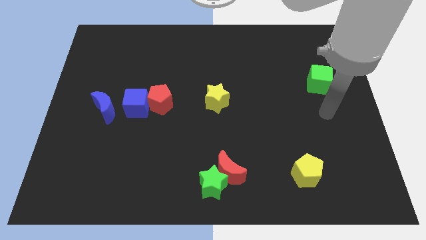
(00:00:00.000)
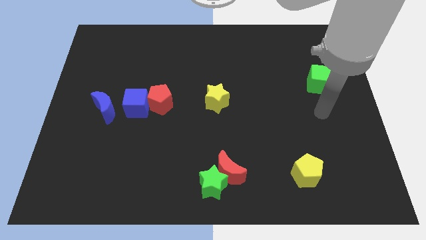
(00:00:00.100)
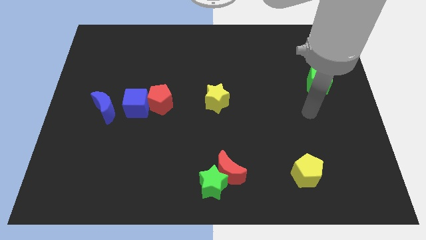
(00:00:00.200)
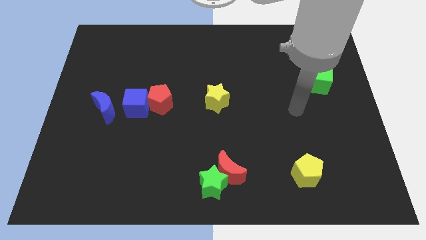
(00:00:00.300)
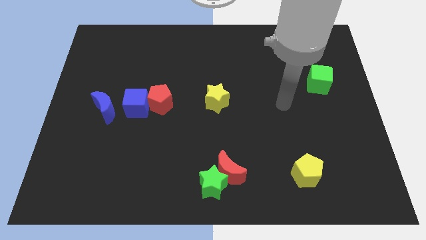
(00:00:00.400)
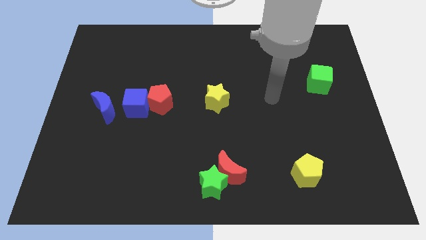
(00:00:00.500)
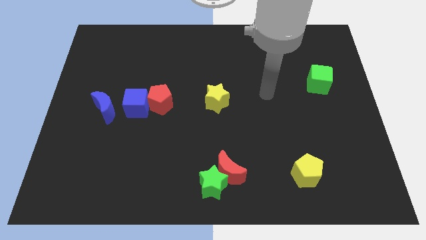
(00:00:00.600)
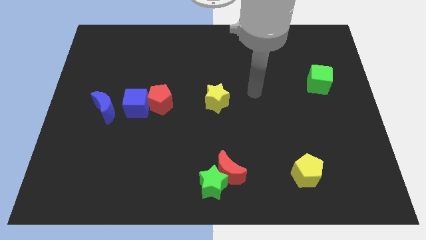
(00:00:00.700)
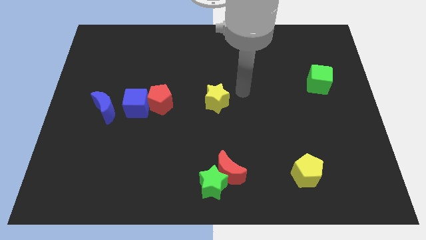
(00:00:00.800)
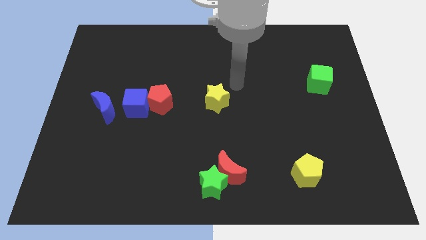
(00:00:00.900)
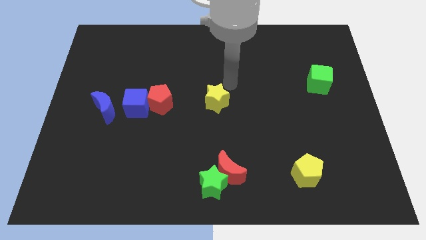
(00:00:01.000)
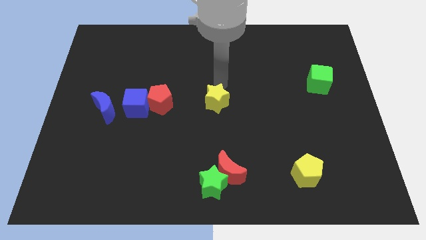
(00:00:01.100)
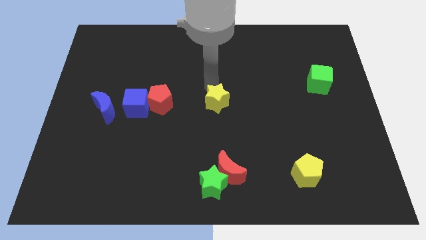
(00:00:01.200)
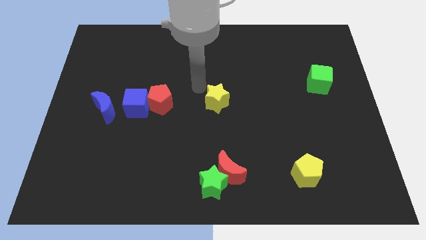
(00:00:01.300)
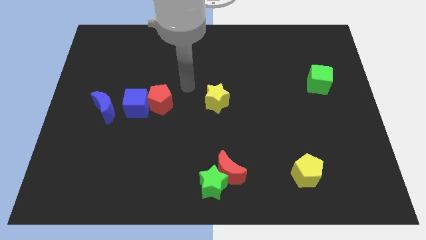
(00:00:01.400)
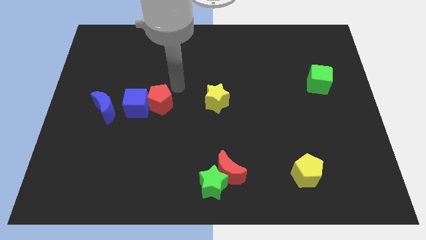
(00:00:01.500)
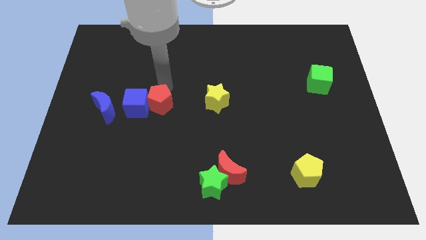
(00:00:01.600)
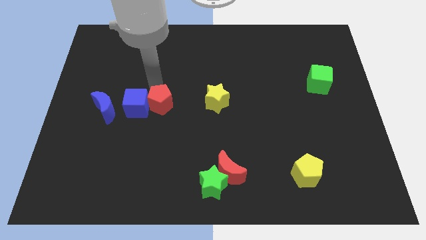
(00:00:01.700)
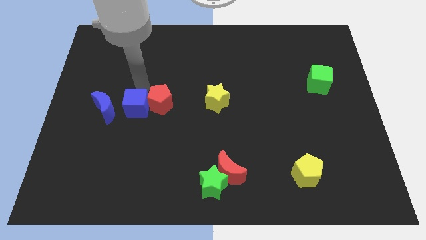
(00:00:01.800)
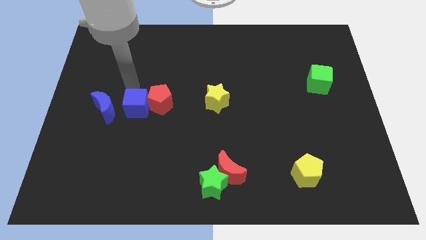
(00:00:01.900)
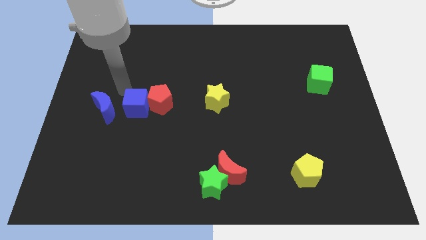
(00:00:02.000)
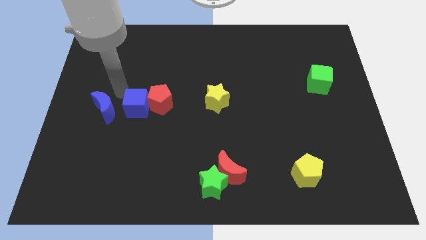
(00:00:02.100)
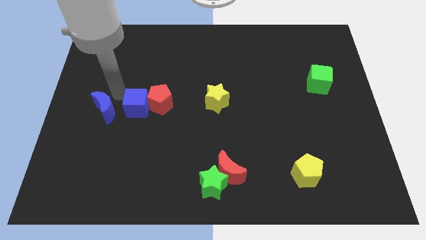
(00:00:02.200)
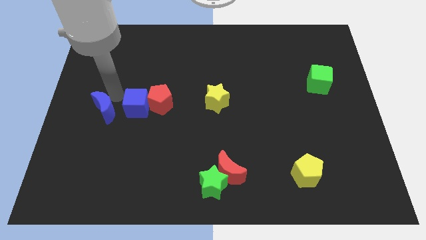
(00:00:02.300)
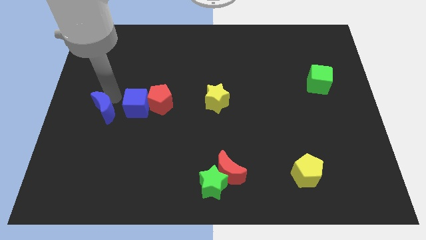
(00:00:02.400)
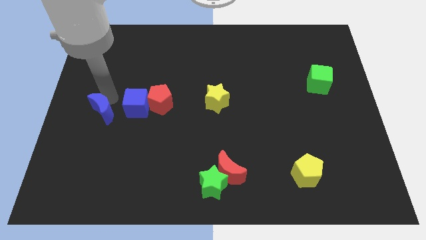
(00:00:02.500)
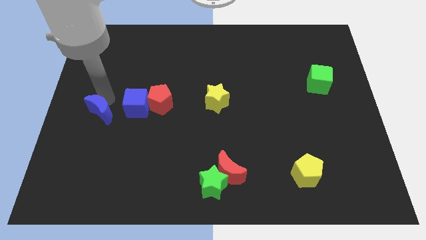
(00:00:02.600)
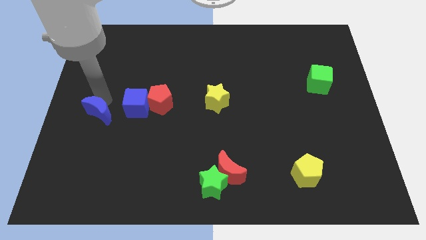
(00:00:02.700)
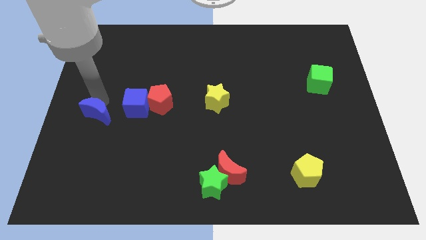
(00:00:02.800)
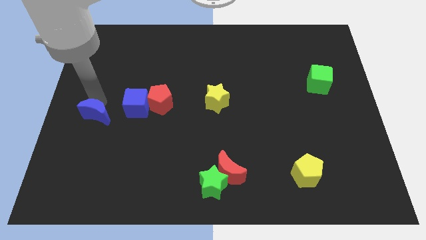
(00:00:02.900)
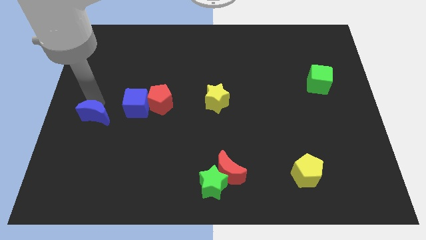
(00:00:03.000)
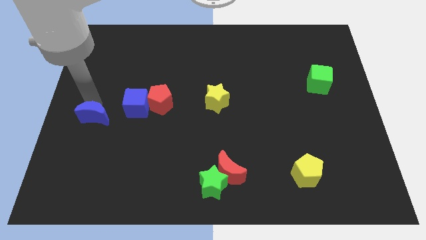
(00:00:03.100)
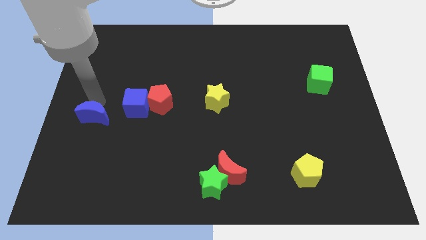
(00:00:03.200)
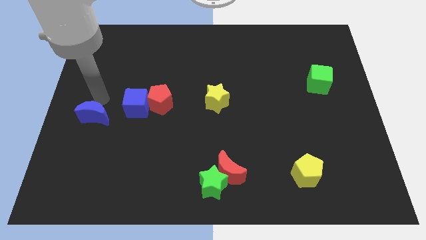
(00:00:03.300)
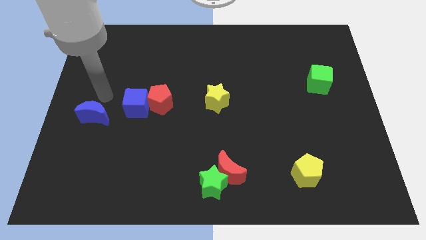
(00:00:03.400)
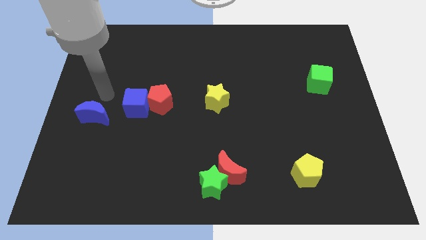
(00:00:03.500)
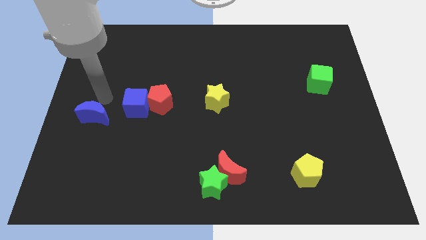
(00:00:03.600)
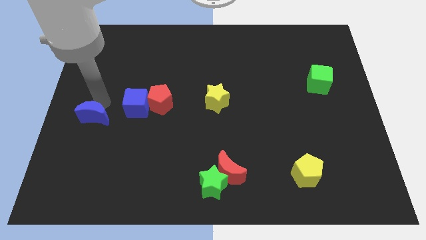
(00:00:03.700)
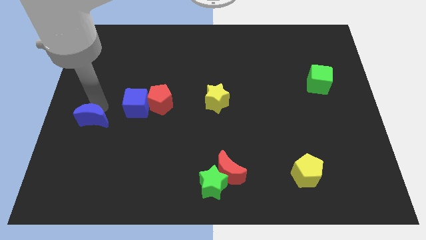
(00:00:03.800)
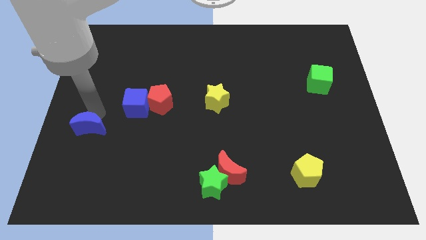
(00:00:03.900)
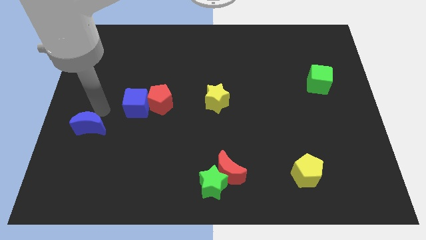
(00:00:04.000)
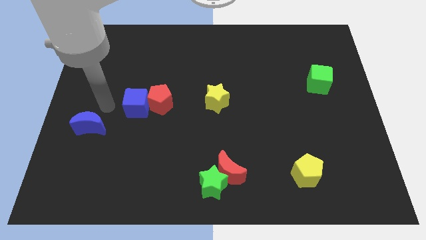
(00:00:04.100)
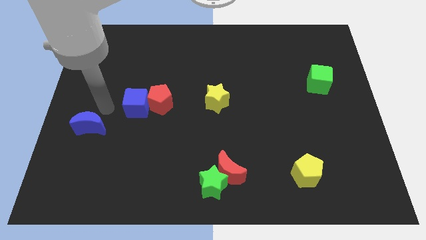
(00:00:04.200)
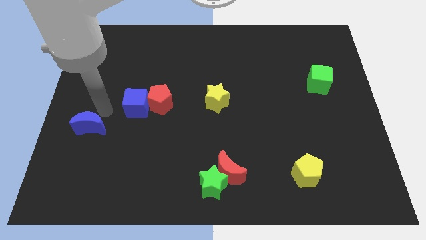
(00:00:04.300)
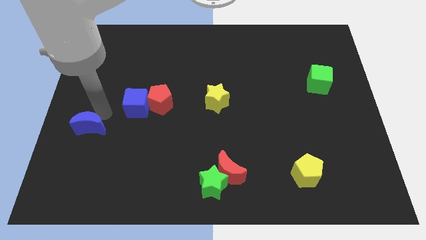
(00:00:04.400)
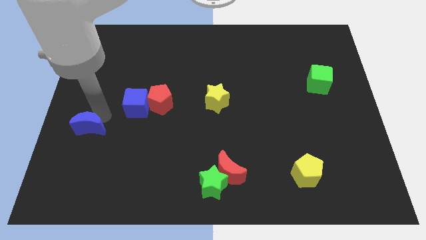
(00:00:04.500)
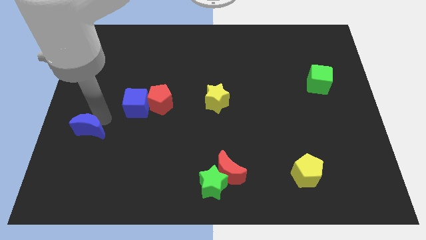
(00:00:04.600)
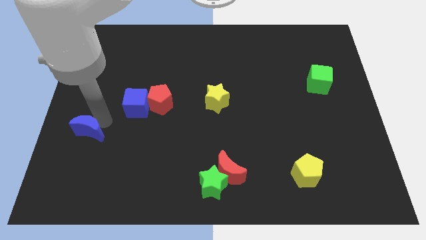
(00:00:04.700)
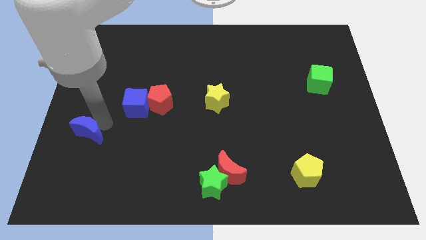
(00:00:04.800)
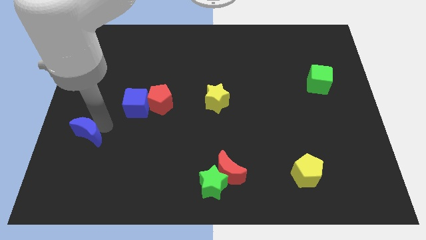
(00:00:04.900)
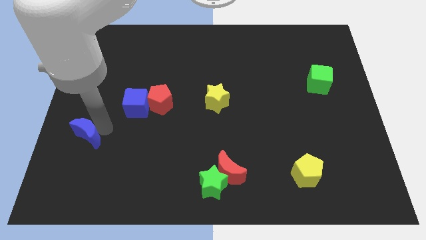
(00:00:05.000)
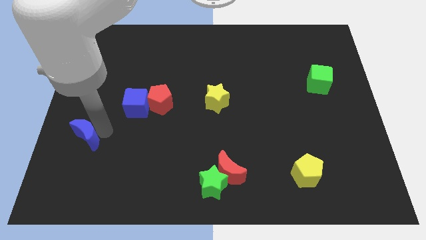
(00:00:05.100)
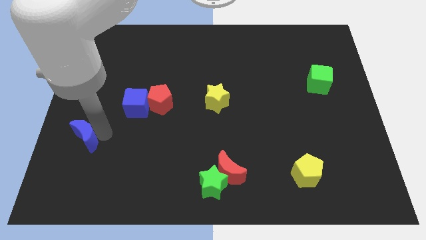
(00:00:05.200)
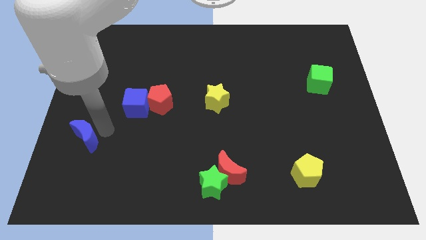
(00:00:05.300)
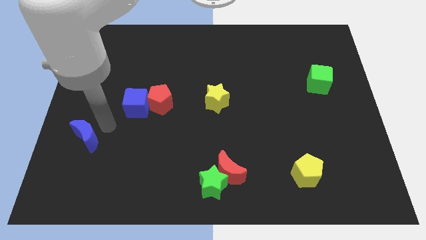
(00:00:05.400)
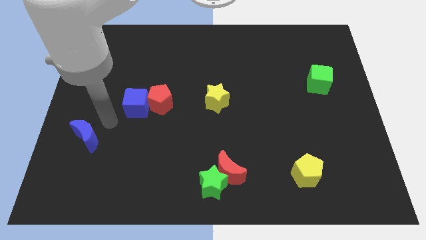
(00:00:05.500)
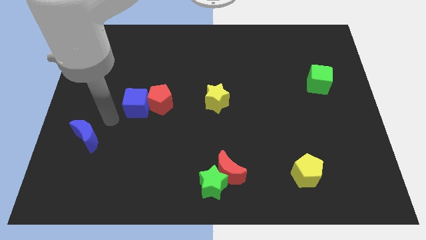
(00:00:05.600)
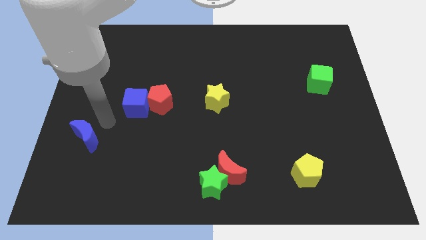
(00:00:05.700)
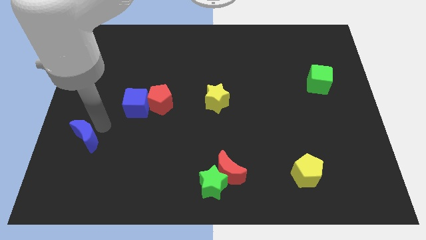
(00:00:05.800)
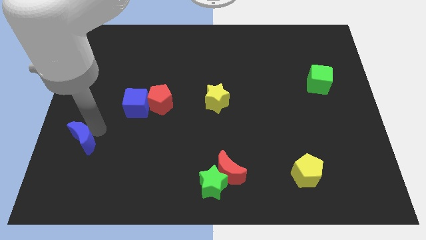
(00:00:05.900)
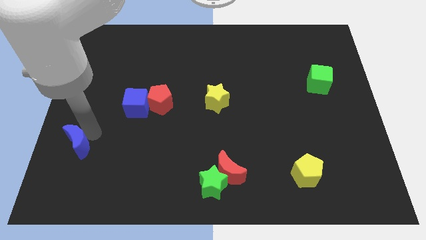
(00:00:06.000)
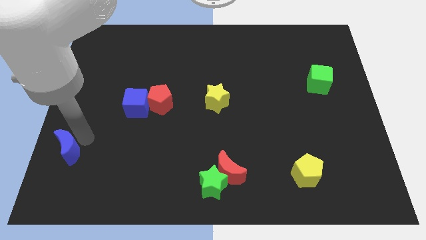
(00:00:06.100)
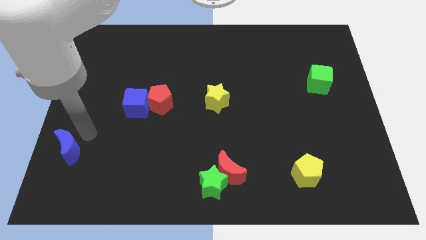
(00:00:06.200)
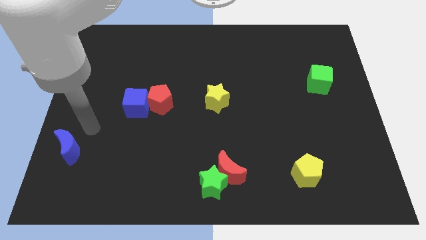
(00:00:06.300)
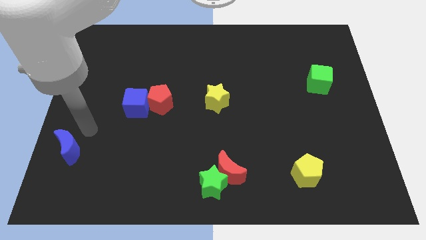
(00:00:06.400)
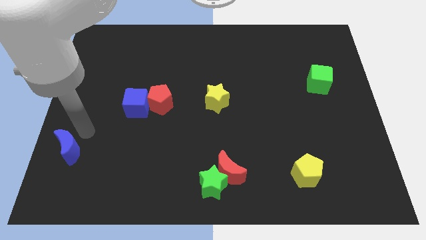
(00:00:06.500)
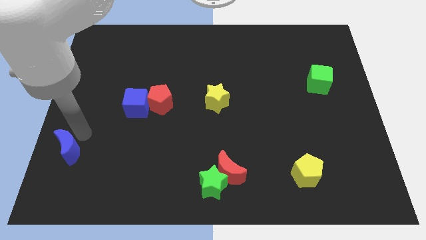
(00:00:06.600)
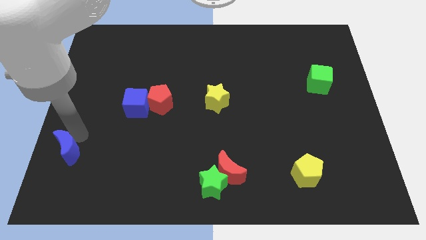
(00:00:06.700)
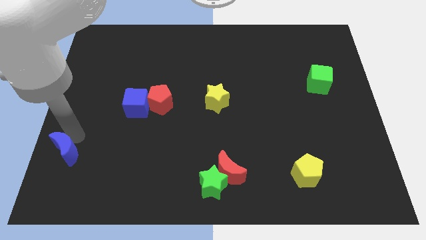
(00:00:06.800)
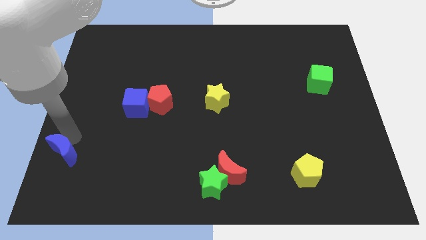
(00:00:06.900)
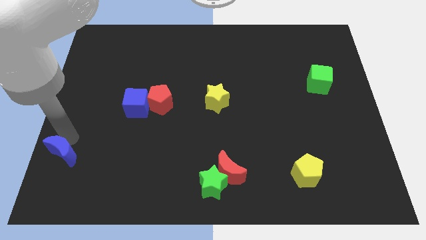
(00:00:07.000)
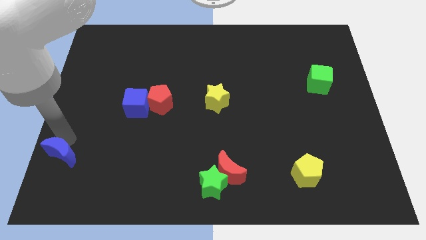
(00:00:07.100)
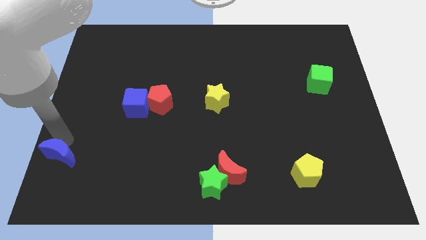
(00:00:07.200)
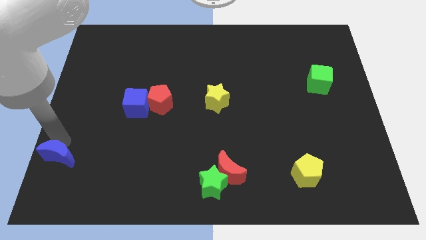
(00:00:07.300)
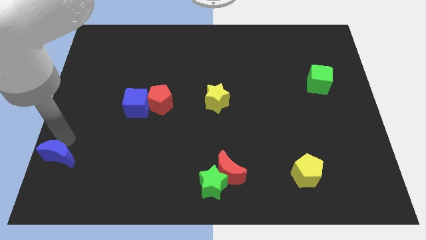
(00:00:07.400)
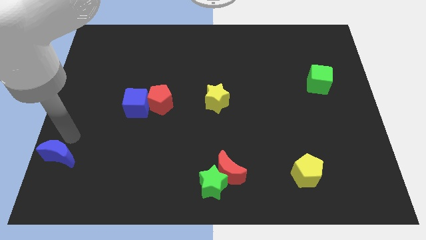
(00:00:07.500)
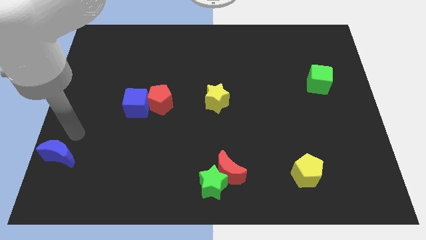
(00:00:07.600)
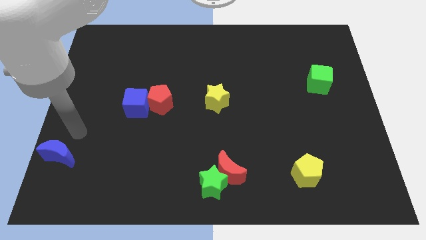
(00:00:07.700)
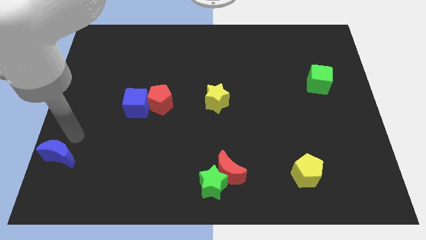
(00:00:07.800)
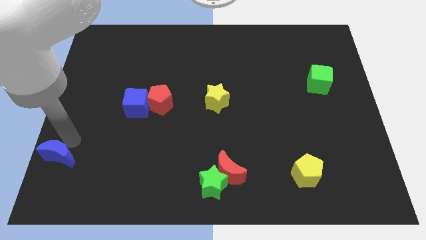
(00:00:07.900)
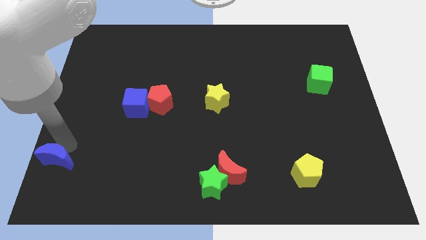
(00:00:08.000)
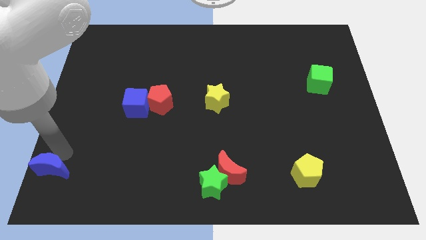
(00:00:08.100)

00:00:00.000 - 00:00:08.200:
put the blue moon to the bottom left of the board
